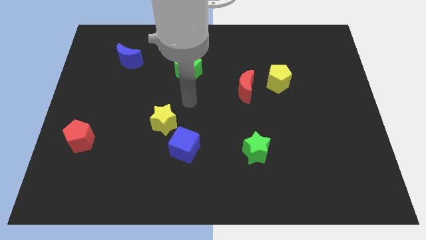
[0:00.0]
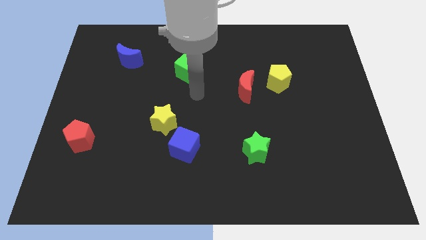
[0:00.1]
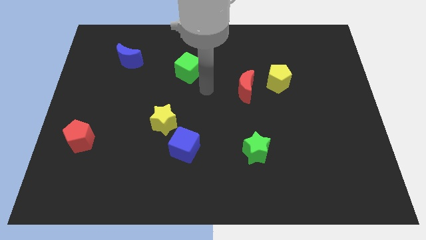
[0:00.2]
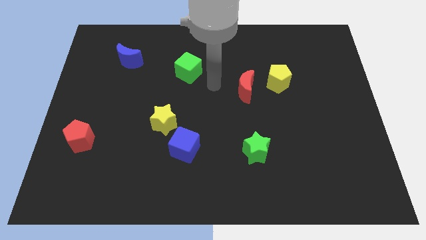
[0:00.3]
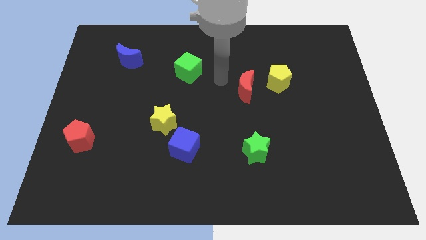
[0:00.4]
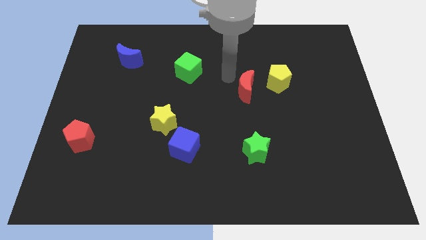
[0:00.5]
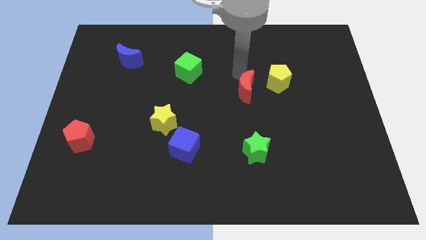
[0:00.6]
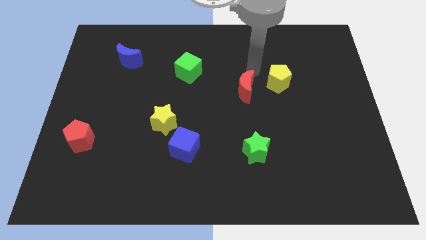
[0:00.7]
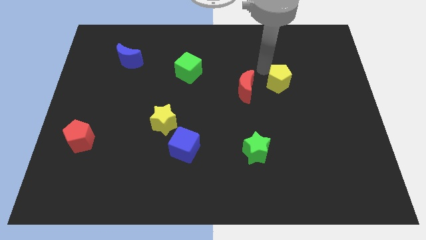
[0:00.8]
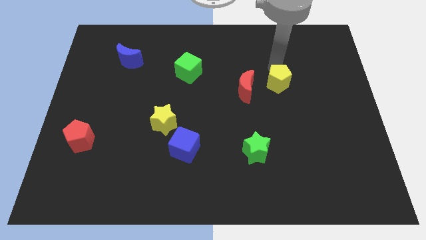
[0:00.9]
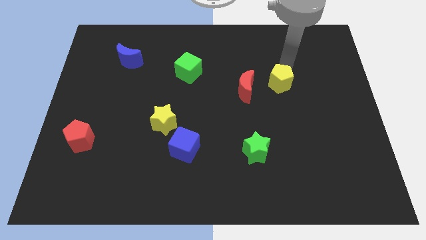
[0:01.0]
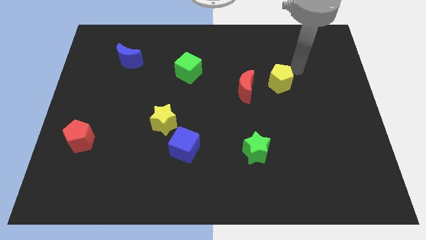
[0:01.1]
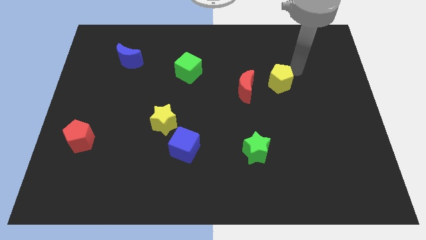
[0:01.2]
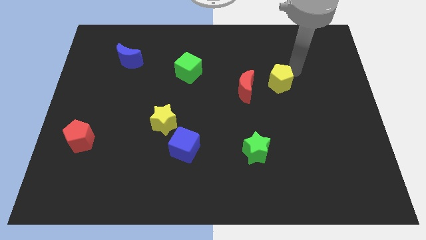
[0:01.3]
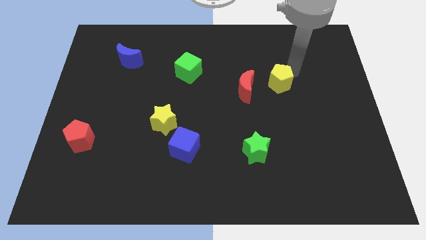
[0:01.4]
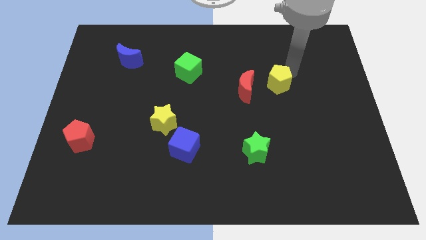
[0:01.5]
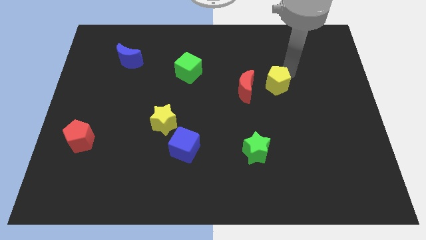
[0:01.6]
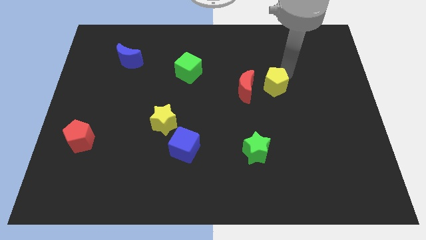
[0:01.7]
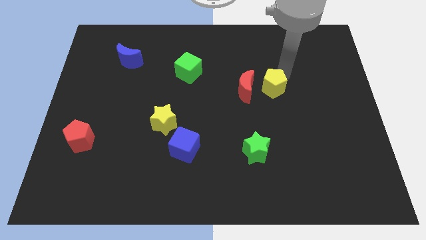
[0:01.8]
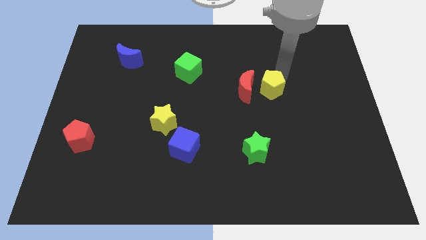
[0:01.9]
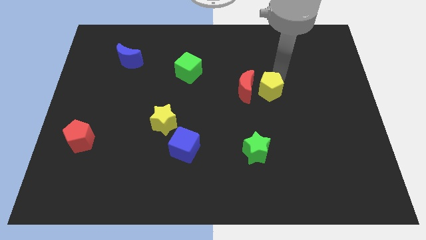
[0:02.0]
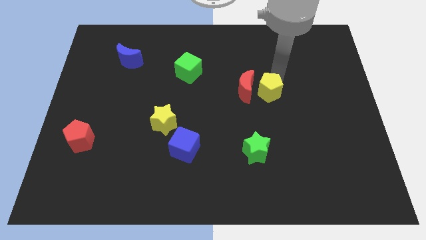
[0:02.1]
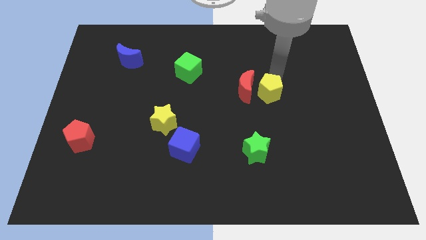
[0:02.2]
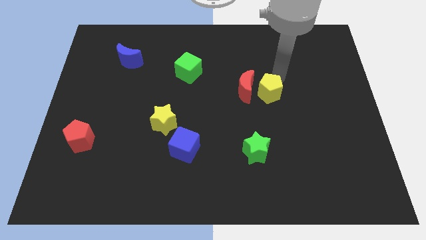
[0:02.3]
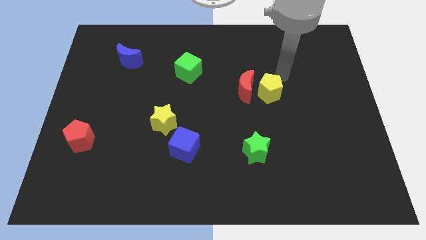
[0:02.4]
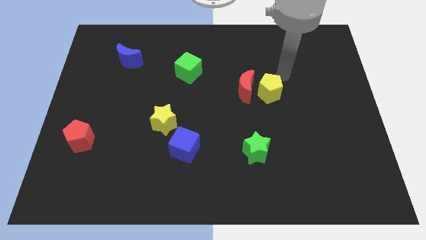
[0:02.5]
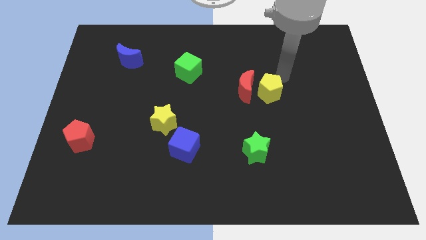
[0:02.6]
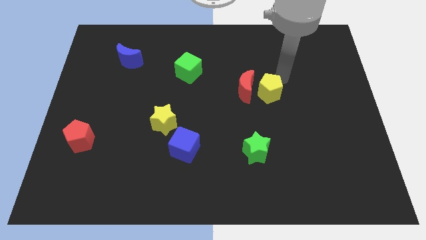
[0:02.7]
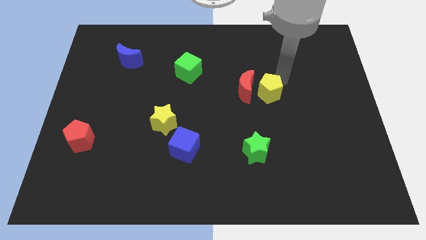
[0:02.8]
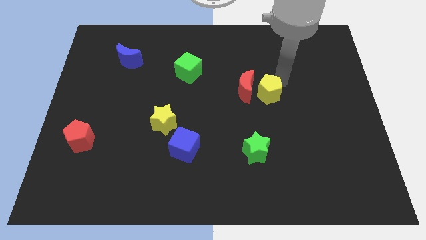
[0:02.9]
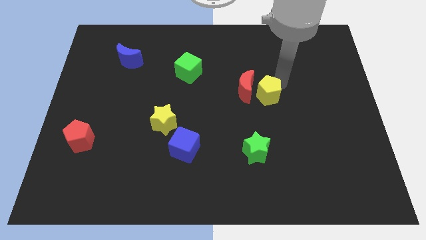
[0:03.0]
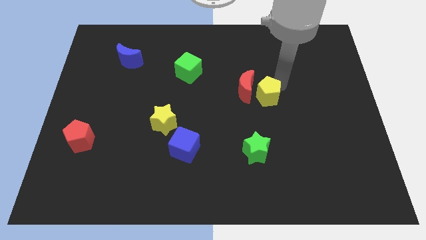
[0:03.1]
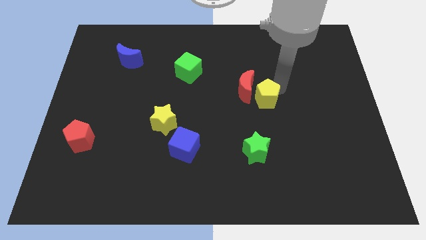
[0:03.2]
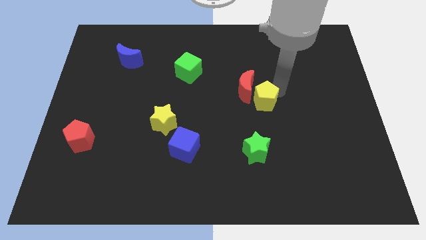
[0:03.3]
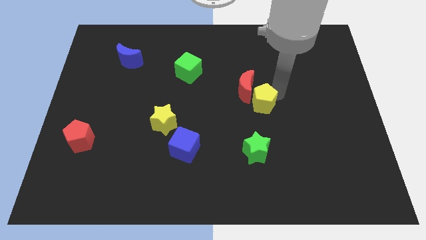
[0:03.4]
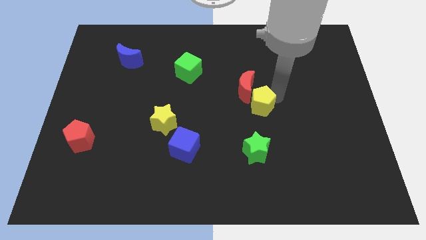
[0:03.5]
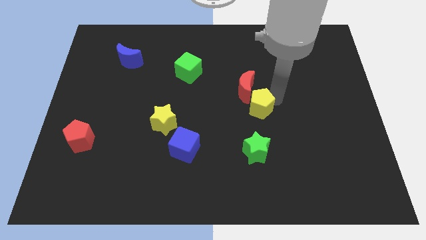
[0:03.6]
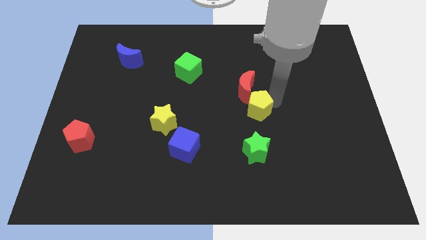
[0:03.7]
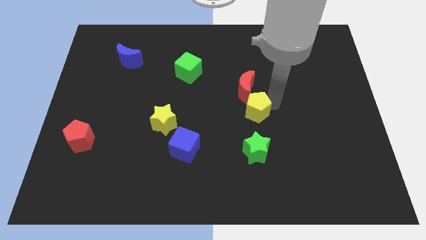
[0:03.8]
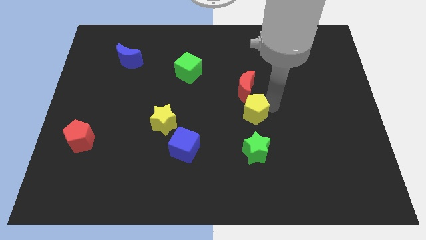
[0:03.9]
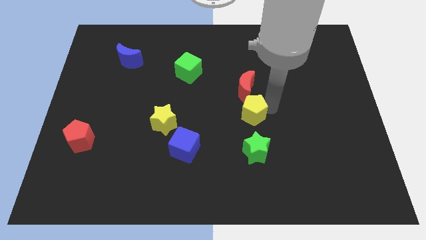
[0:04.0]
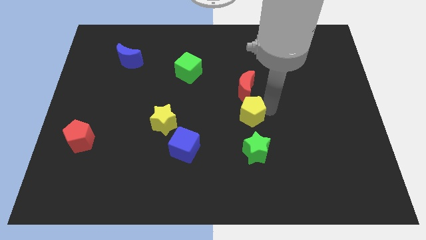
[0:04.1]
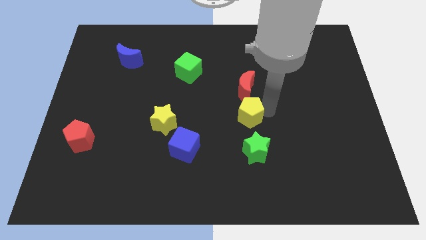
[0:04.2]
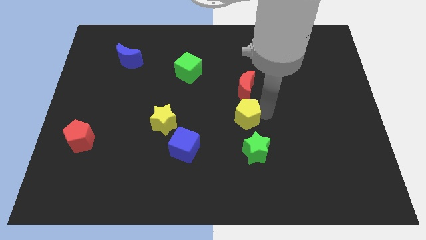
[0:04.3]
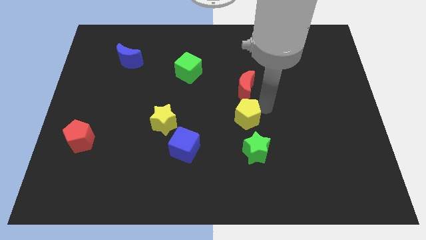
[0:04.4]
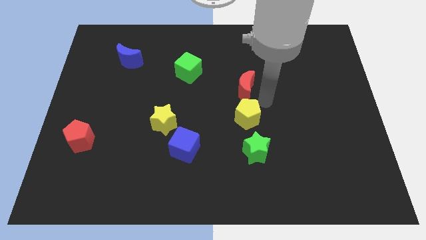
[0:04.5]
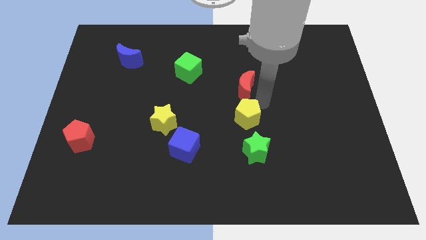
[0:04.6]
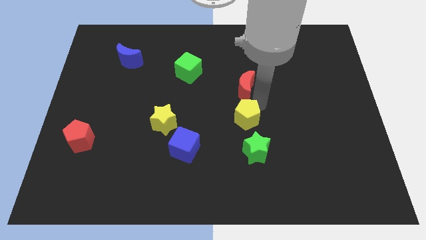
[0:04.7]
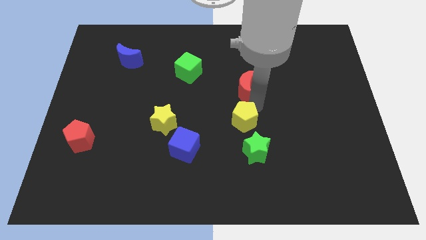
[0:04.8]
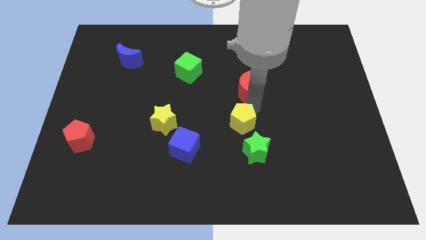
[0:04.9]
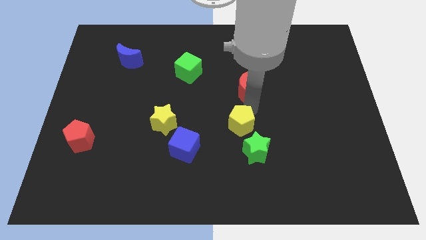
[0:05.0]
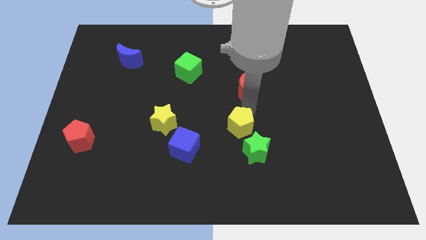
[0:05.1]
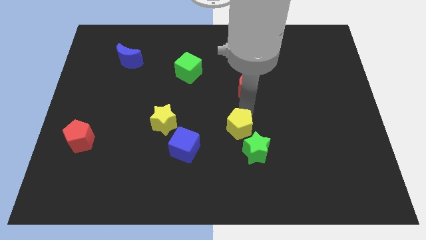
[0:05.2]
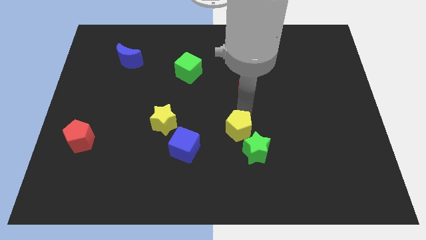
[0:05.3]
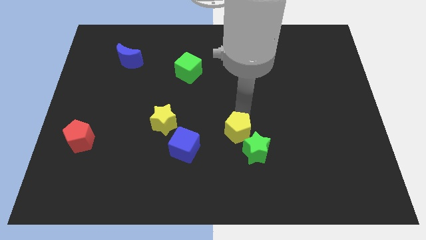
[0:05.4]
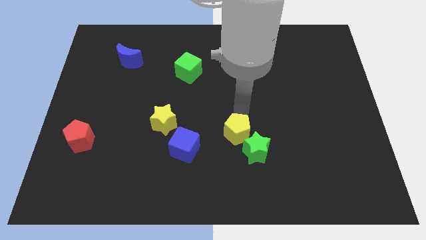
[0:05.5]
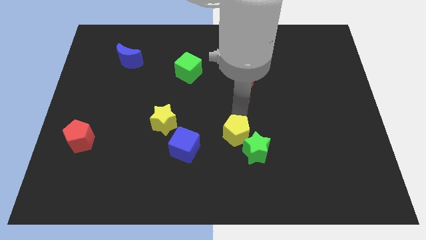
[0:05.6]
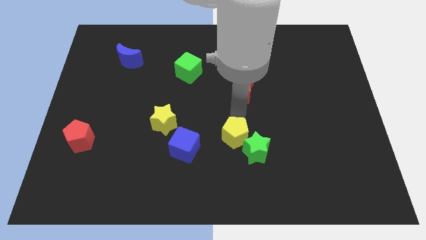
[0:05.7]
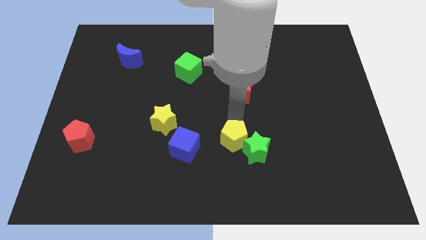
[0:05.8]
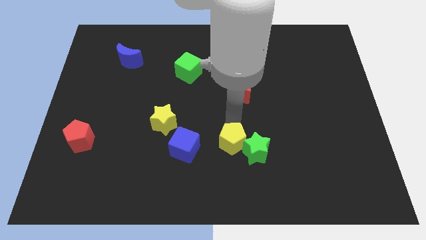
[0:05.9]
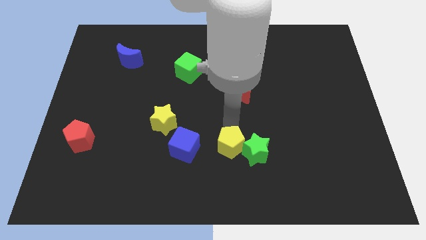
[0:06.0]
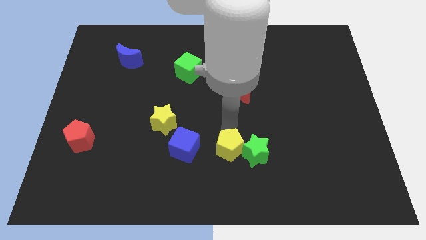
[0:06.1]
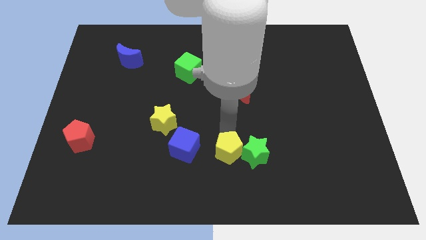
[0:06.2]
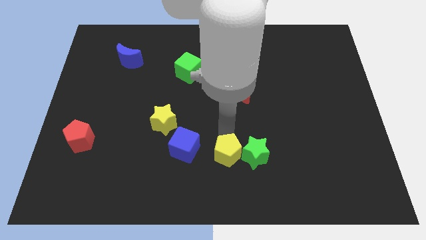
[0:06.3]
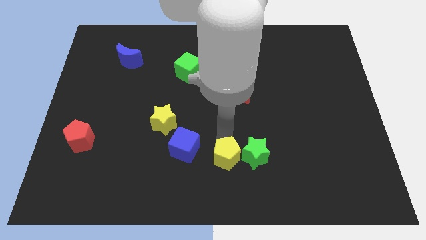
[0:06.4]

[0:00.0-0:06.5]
slide the yellow pentagon to the bottom right side of the blue cube
